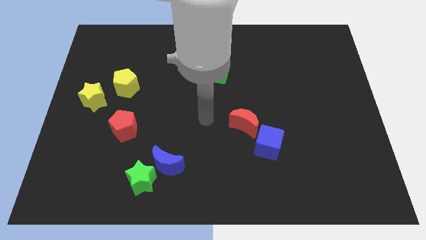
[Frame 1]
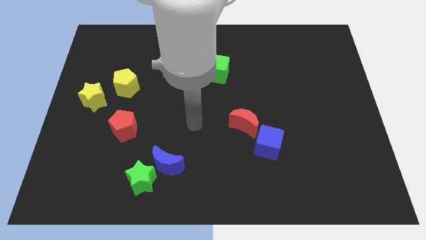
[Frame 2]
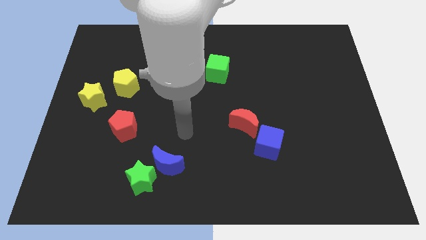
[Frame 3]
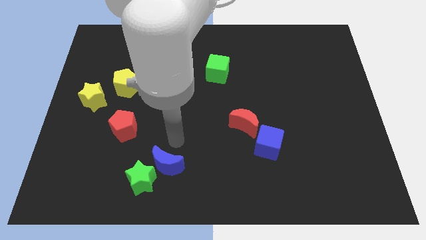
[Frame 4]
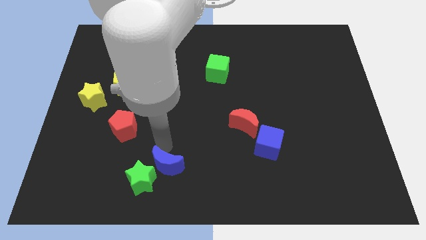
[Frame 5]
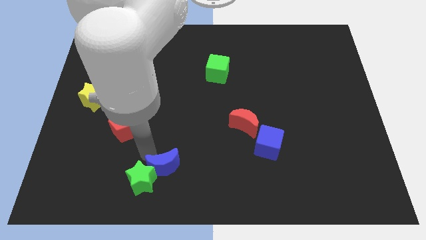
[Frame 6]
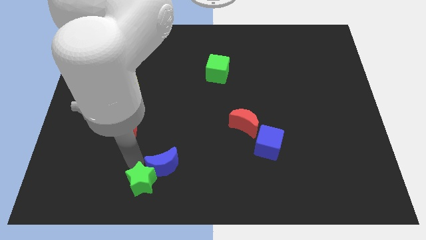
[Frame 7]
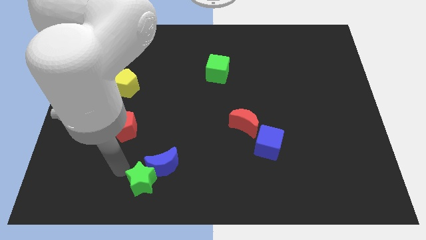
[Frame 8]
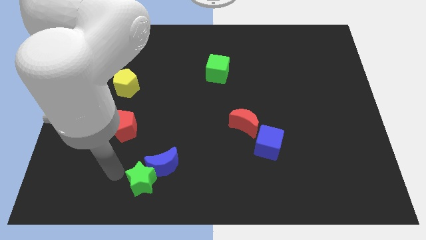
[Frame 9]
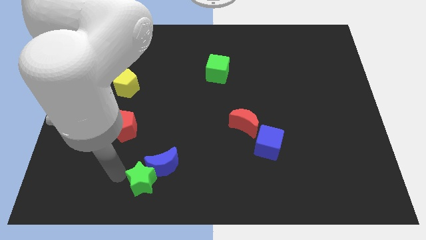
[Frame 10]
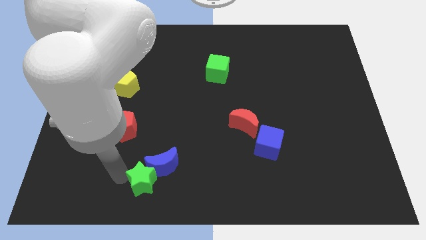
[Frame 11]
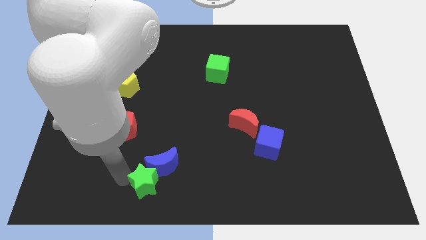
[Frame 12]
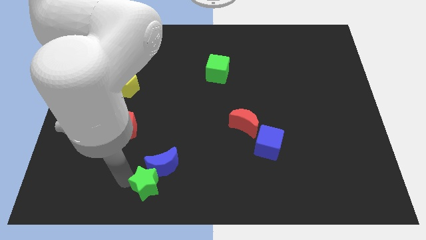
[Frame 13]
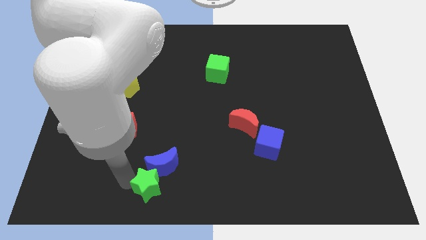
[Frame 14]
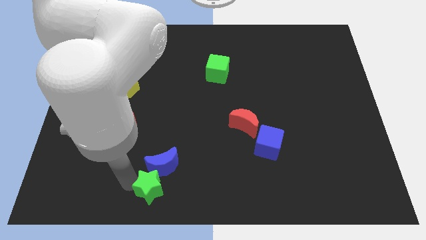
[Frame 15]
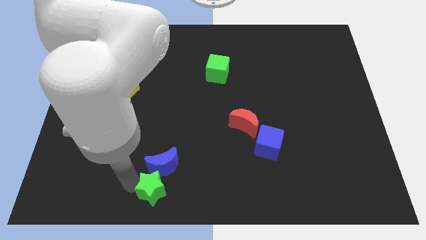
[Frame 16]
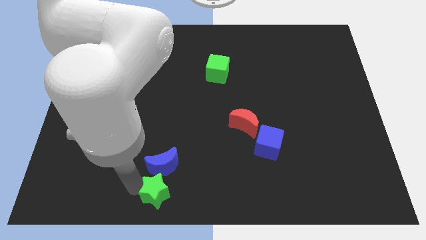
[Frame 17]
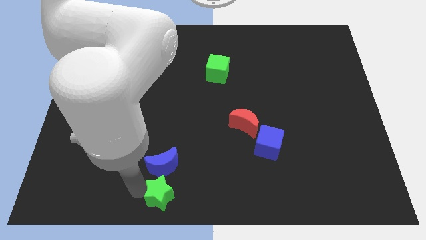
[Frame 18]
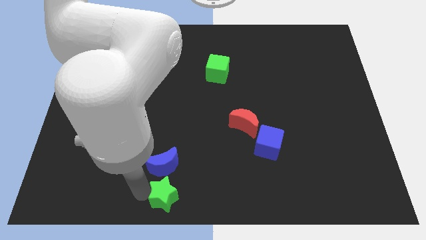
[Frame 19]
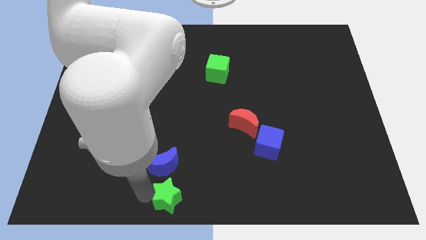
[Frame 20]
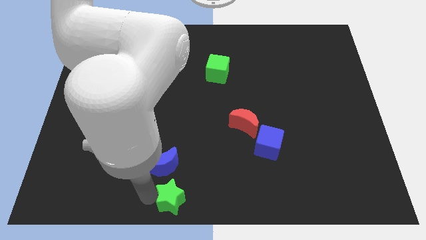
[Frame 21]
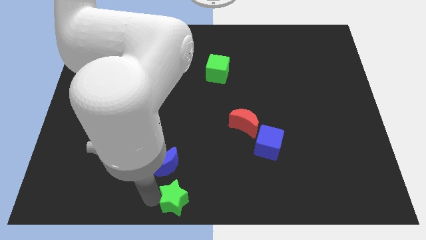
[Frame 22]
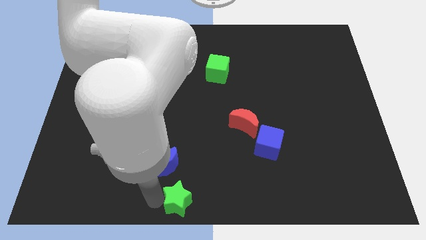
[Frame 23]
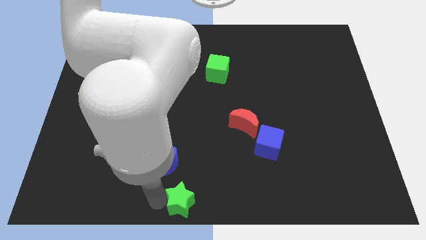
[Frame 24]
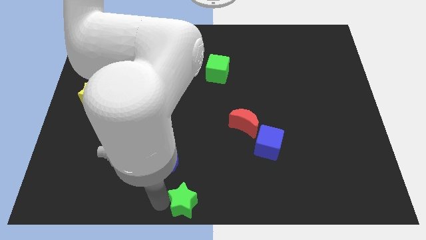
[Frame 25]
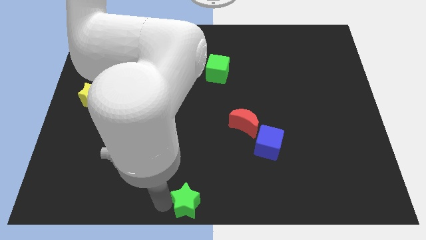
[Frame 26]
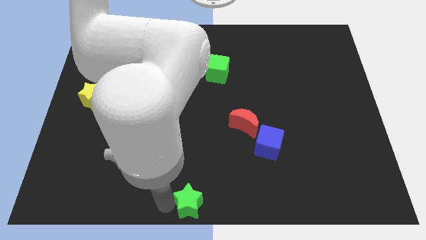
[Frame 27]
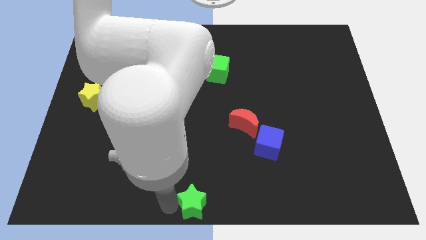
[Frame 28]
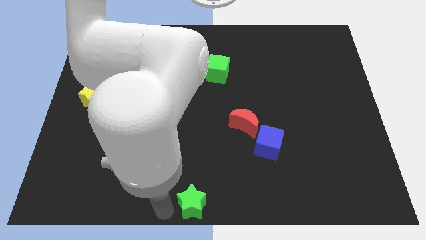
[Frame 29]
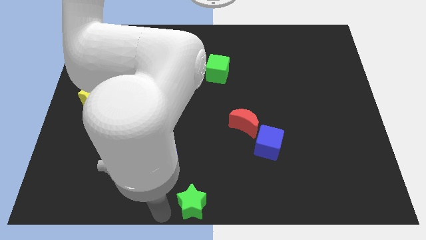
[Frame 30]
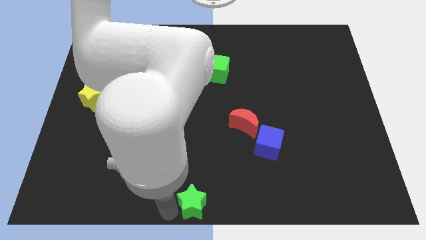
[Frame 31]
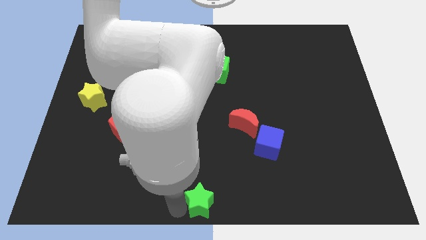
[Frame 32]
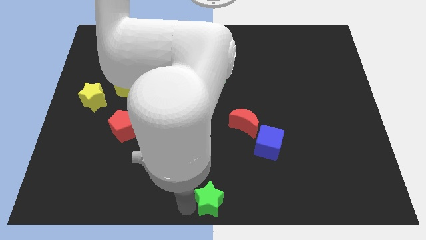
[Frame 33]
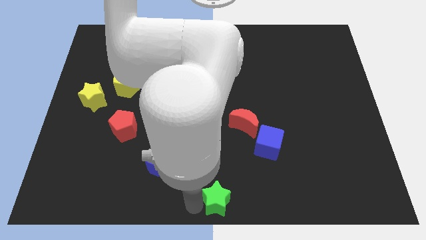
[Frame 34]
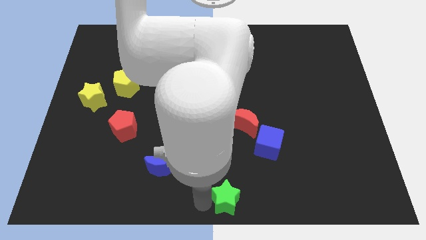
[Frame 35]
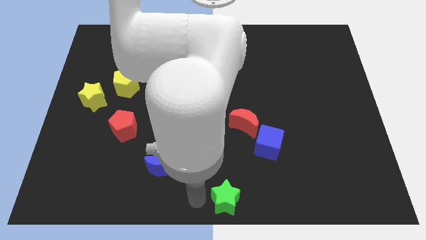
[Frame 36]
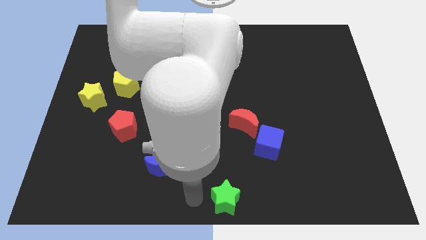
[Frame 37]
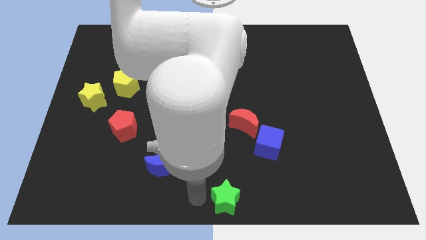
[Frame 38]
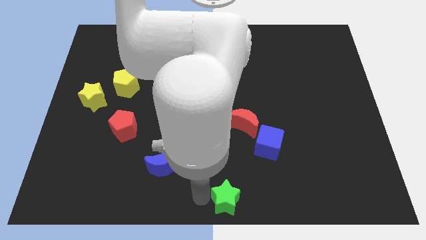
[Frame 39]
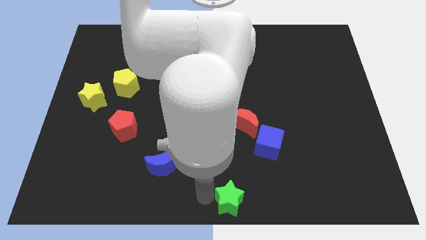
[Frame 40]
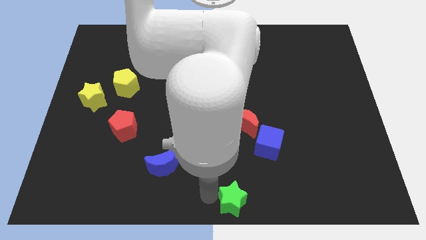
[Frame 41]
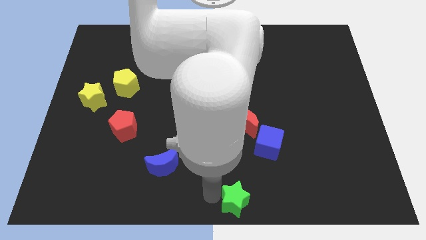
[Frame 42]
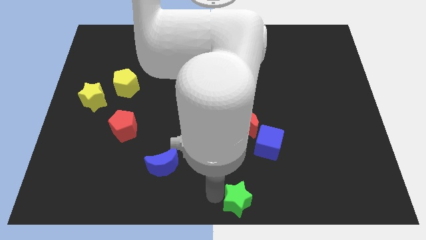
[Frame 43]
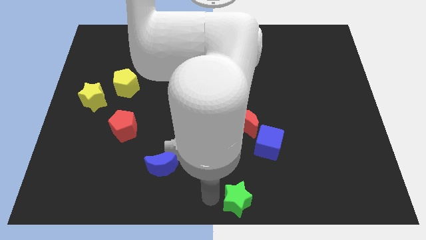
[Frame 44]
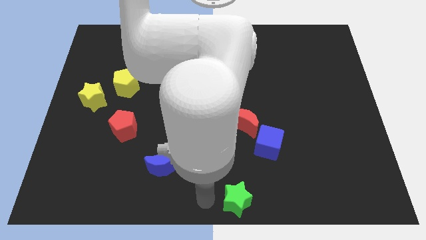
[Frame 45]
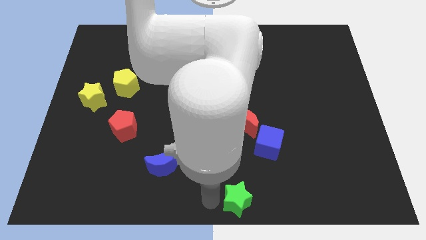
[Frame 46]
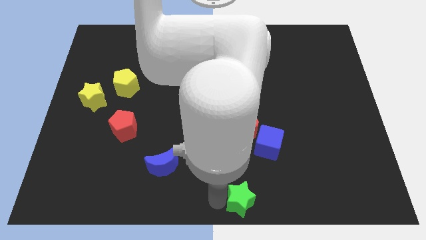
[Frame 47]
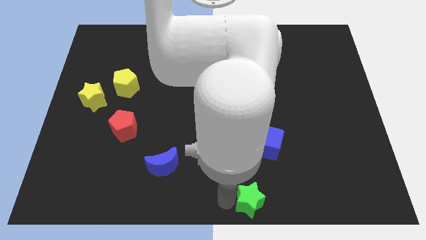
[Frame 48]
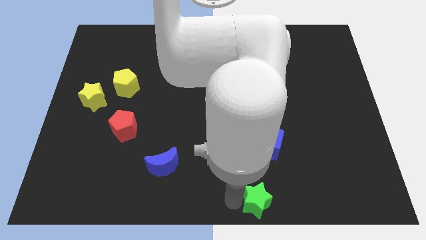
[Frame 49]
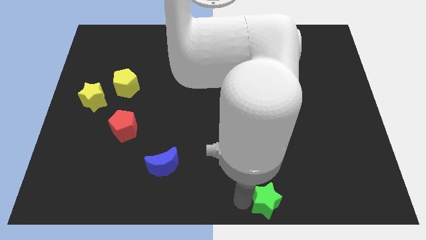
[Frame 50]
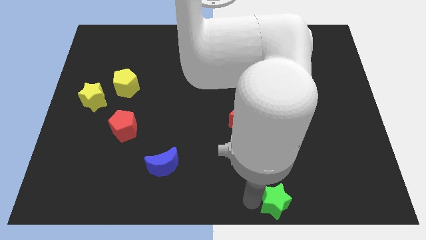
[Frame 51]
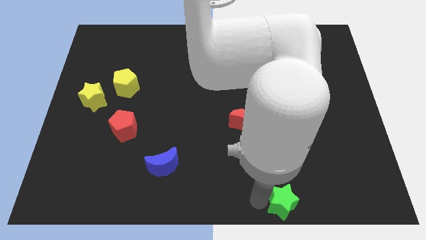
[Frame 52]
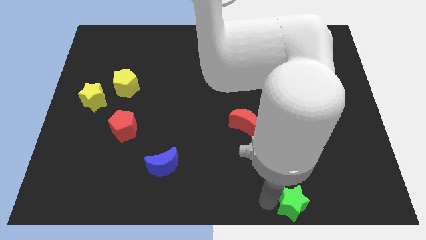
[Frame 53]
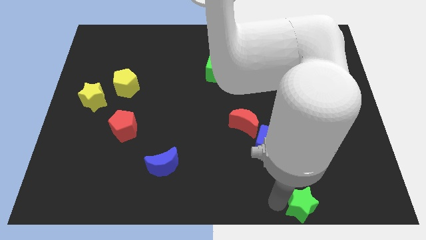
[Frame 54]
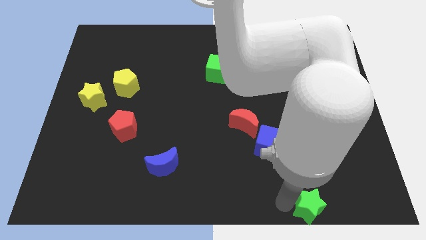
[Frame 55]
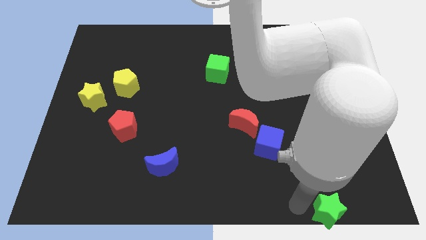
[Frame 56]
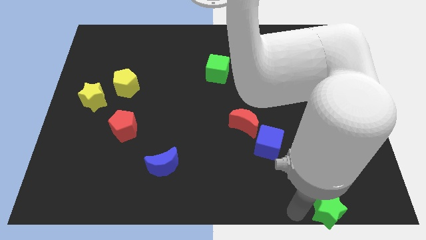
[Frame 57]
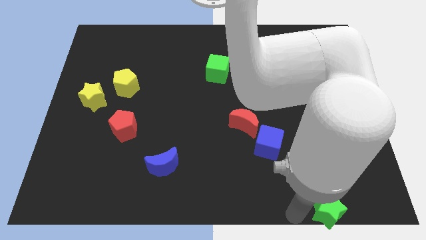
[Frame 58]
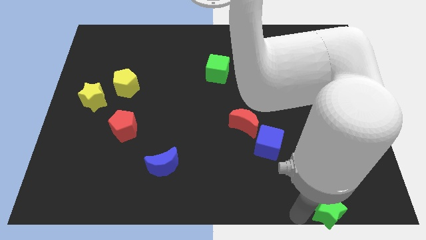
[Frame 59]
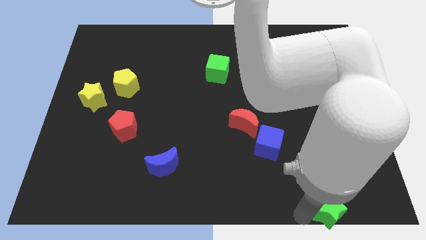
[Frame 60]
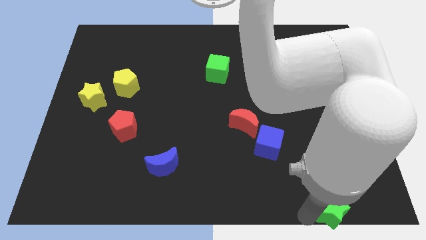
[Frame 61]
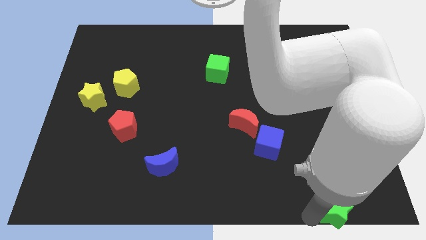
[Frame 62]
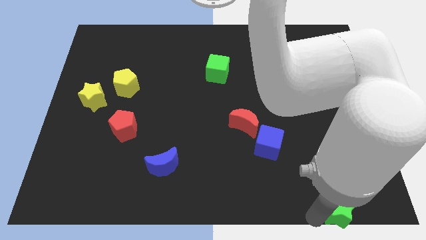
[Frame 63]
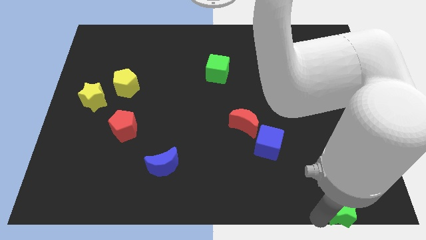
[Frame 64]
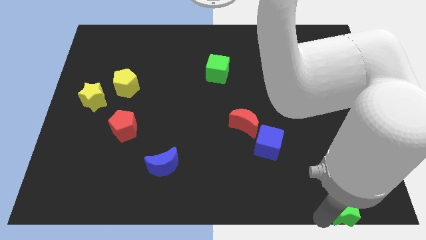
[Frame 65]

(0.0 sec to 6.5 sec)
push the green star to the lower right corner

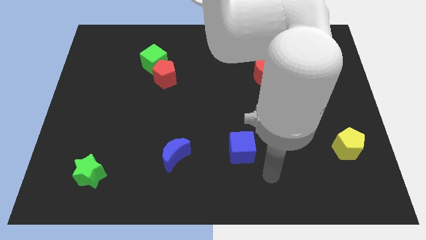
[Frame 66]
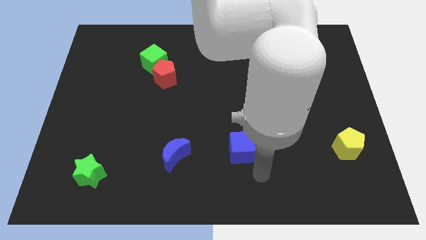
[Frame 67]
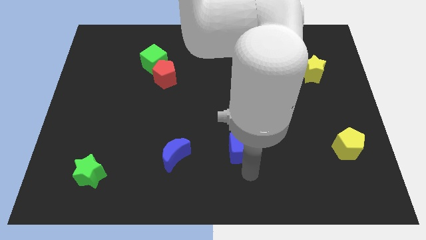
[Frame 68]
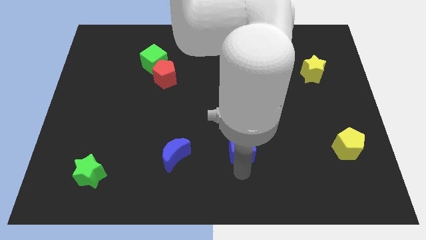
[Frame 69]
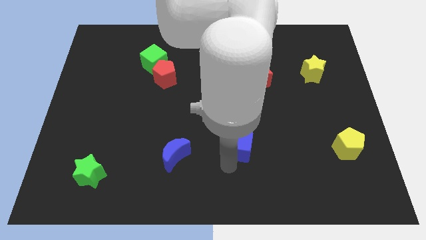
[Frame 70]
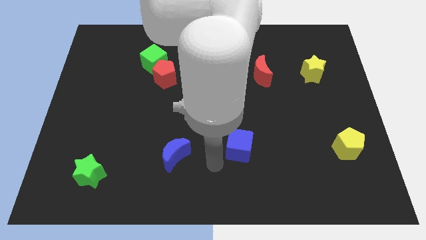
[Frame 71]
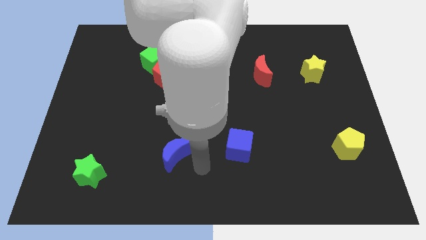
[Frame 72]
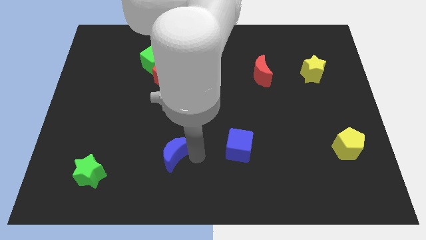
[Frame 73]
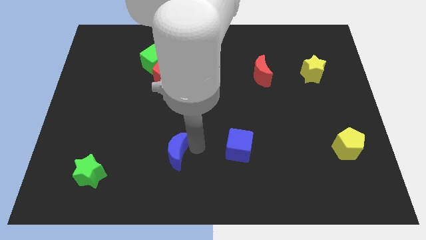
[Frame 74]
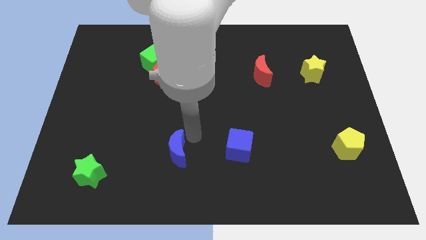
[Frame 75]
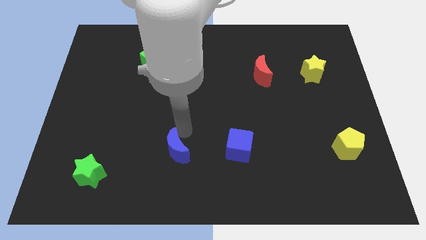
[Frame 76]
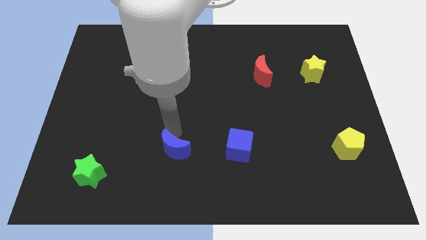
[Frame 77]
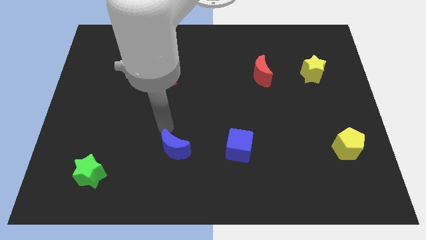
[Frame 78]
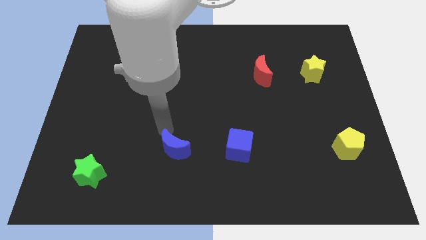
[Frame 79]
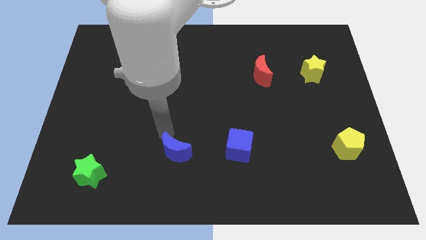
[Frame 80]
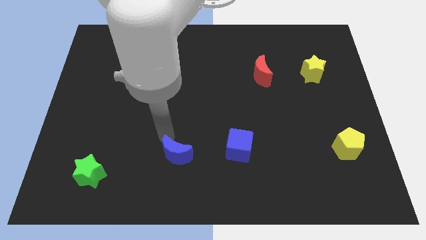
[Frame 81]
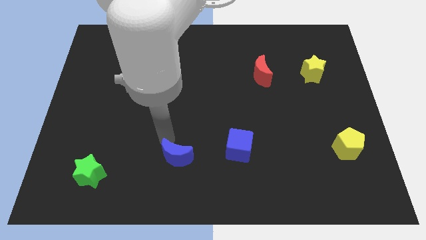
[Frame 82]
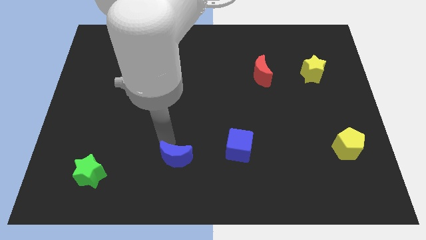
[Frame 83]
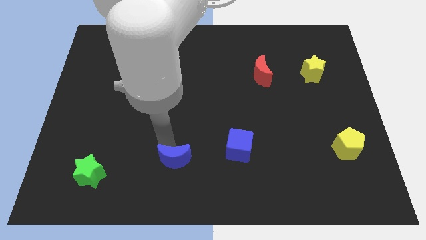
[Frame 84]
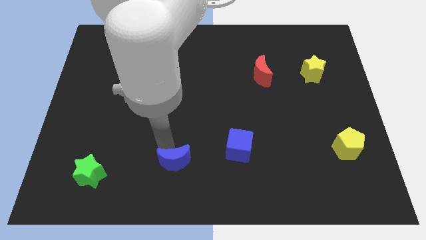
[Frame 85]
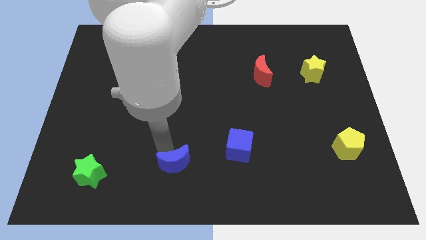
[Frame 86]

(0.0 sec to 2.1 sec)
put the blue moon to the bottom side
